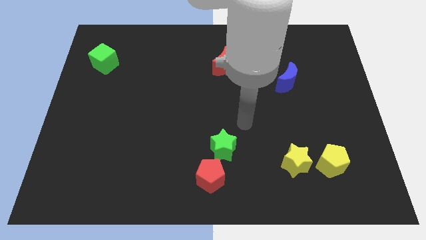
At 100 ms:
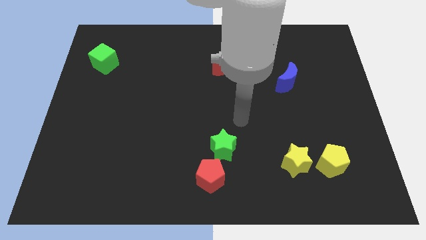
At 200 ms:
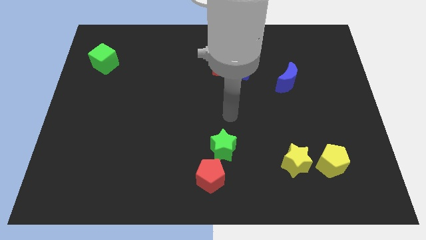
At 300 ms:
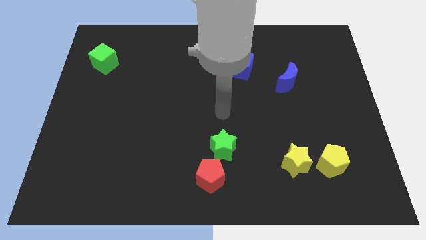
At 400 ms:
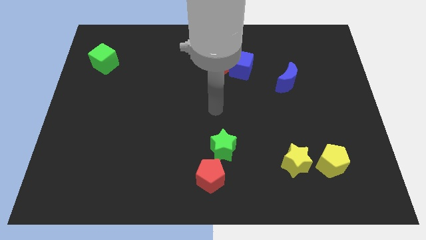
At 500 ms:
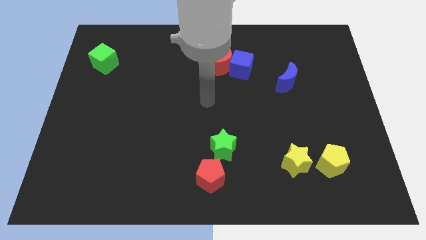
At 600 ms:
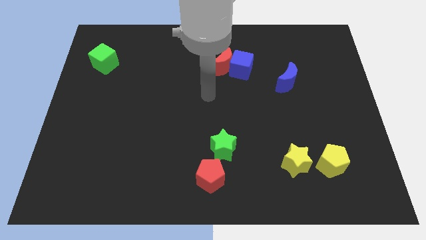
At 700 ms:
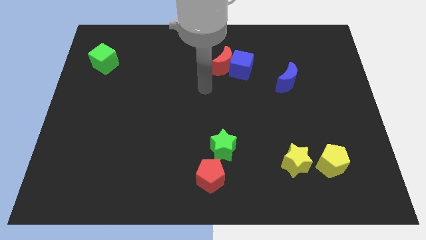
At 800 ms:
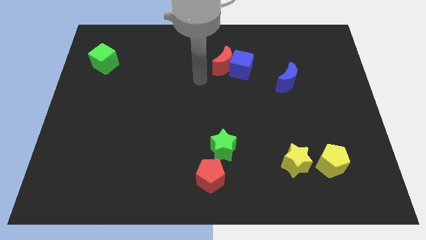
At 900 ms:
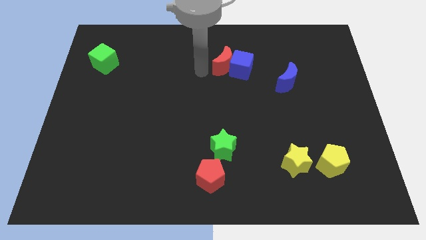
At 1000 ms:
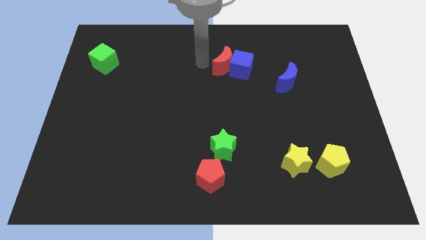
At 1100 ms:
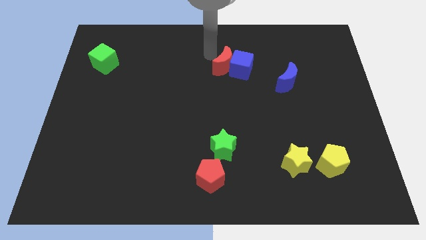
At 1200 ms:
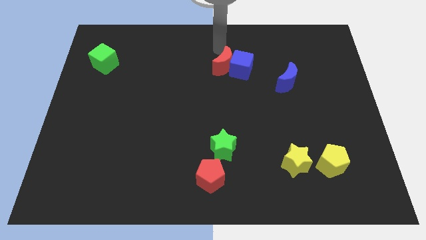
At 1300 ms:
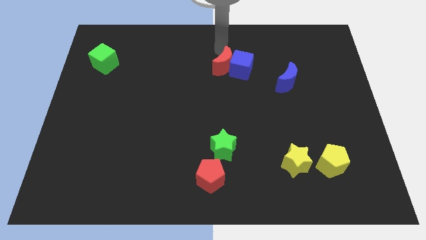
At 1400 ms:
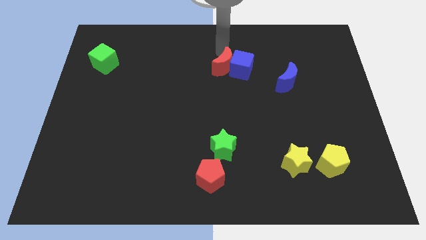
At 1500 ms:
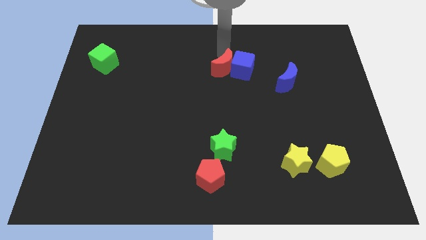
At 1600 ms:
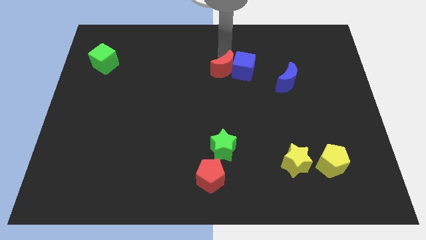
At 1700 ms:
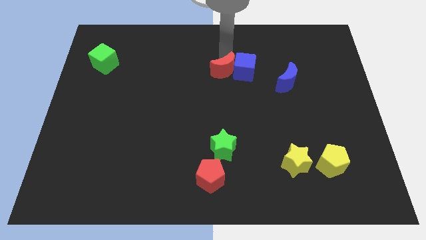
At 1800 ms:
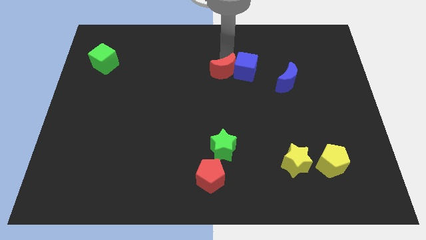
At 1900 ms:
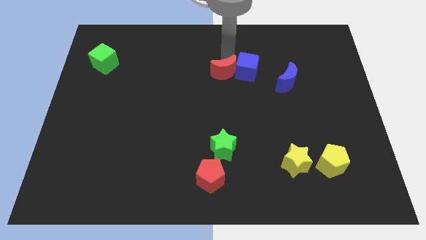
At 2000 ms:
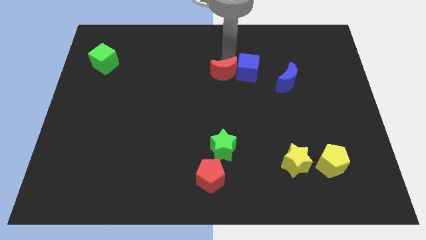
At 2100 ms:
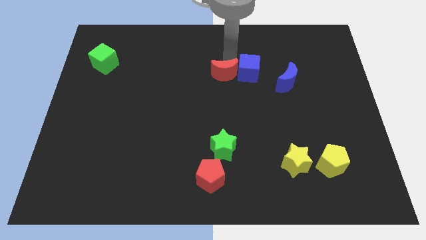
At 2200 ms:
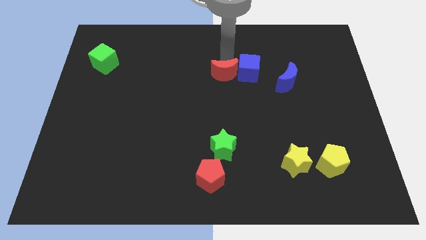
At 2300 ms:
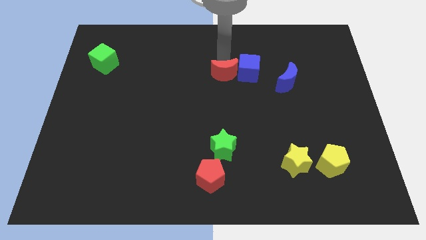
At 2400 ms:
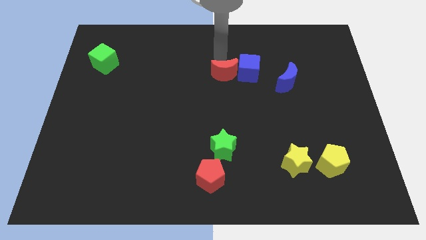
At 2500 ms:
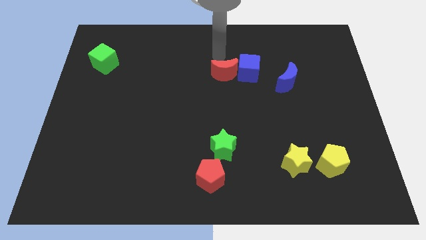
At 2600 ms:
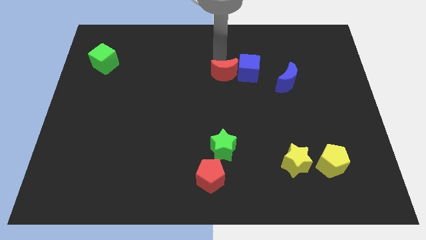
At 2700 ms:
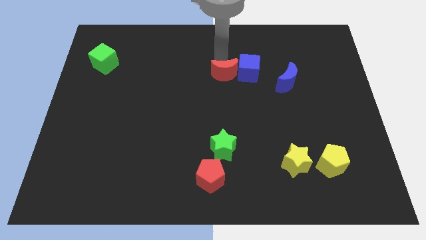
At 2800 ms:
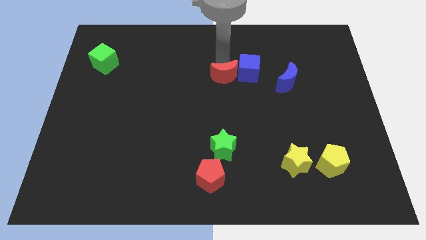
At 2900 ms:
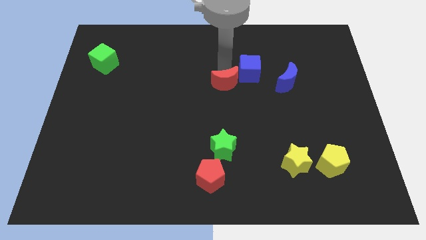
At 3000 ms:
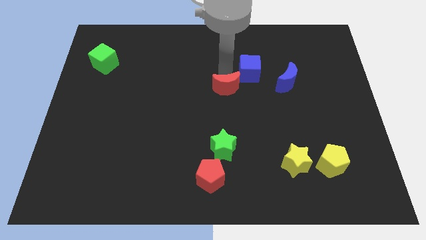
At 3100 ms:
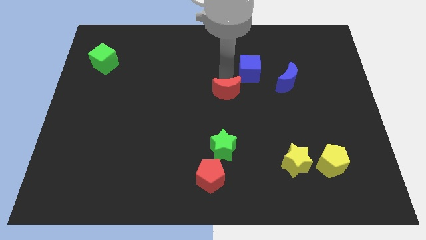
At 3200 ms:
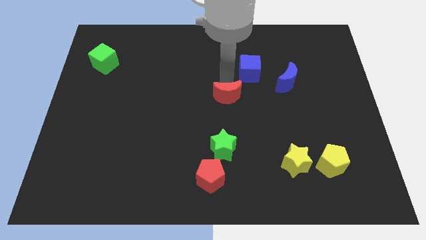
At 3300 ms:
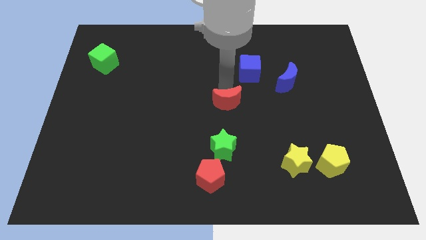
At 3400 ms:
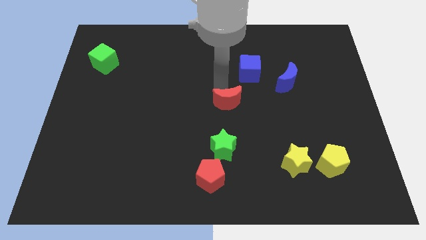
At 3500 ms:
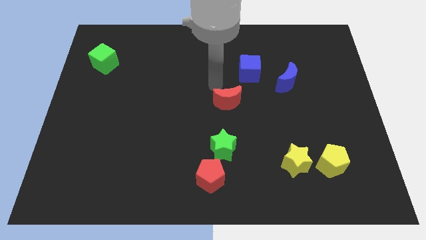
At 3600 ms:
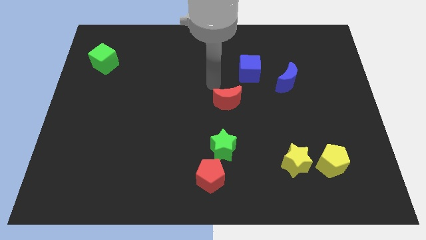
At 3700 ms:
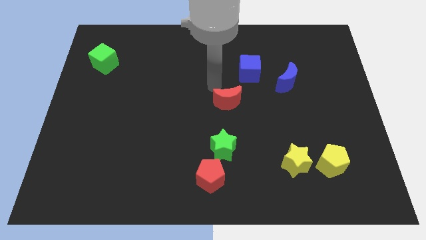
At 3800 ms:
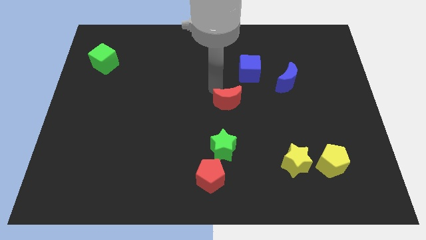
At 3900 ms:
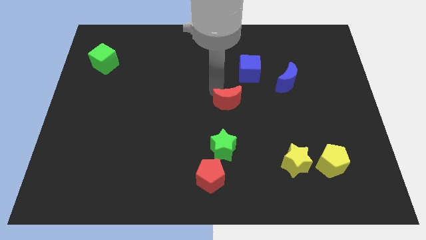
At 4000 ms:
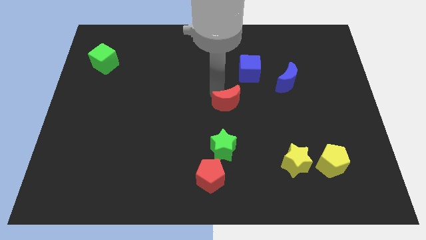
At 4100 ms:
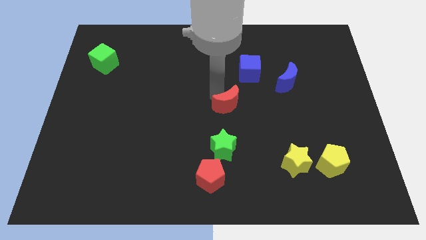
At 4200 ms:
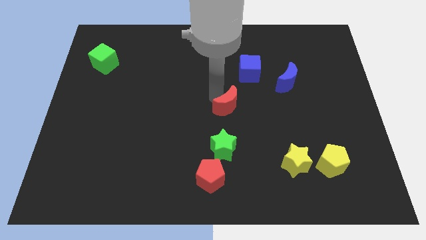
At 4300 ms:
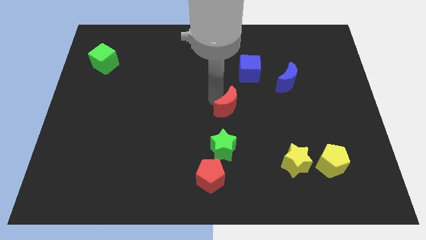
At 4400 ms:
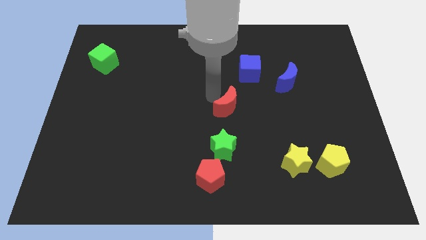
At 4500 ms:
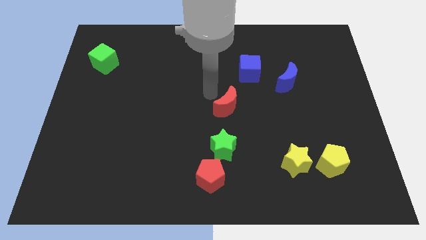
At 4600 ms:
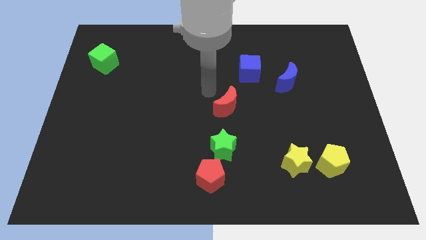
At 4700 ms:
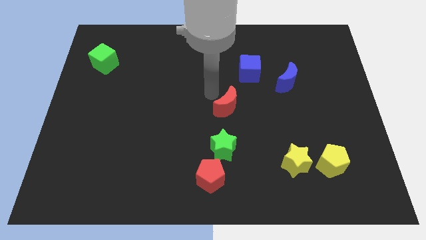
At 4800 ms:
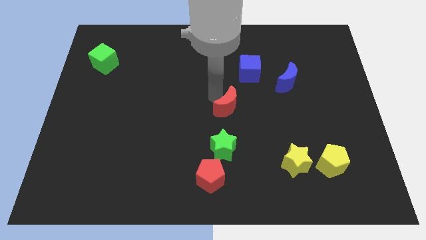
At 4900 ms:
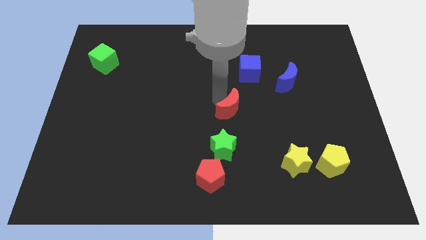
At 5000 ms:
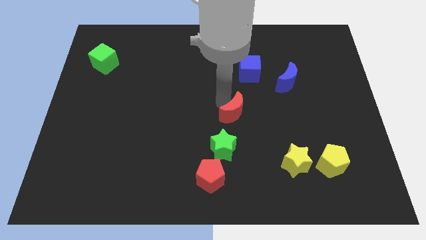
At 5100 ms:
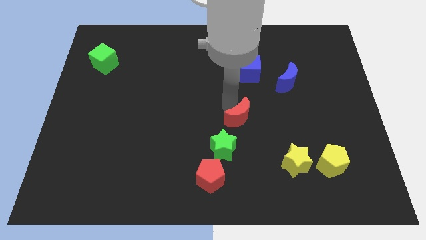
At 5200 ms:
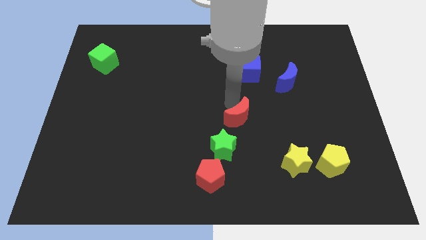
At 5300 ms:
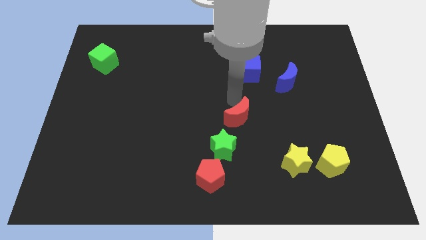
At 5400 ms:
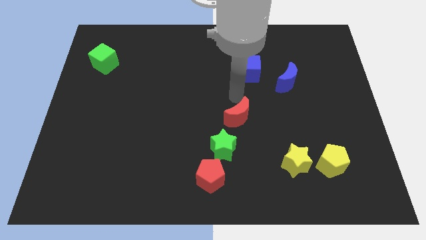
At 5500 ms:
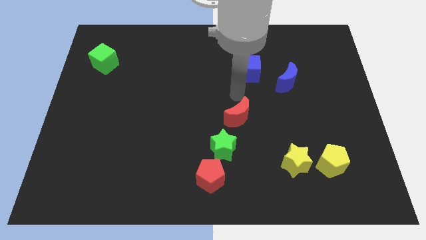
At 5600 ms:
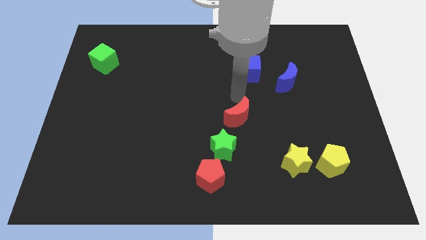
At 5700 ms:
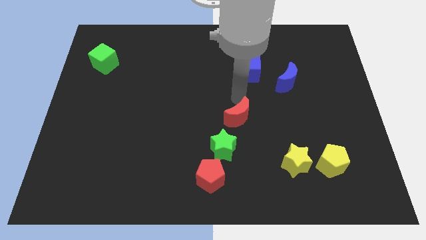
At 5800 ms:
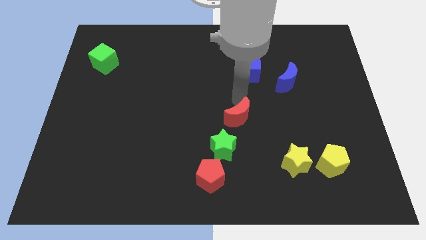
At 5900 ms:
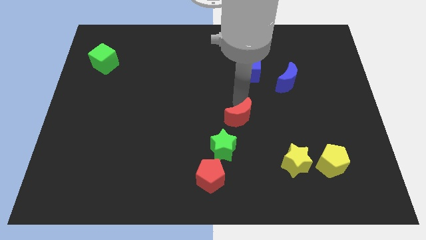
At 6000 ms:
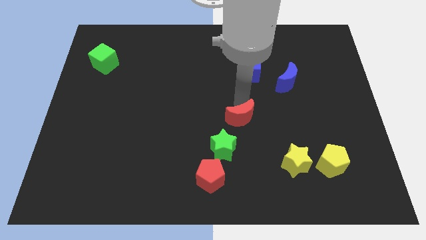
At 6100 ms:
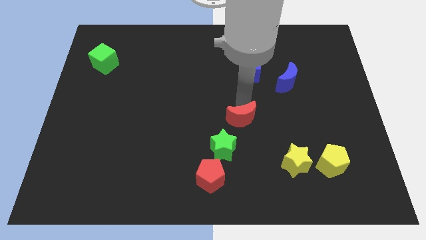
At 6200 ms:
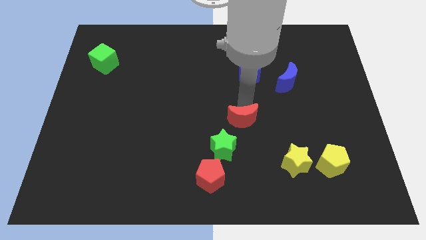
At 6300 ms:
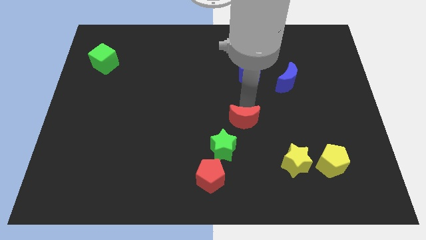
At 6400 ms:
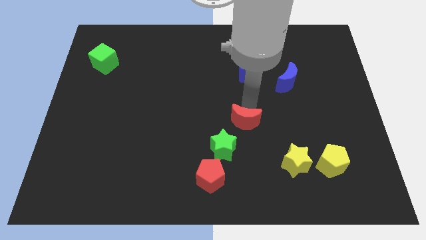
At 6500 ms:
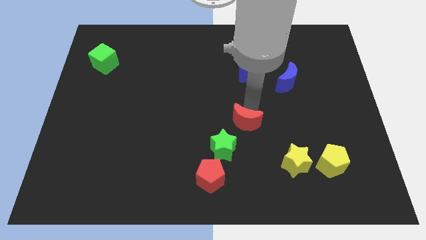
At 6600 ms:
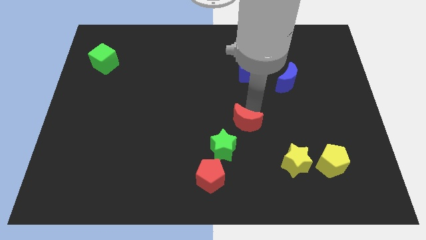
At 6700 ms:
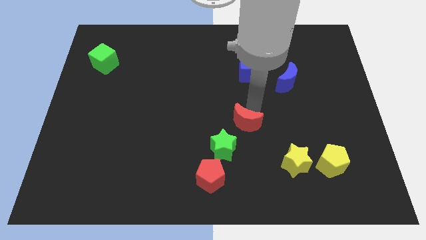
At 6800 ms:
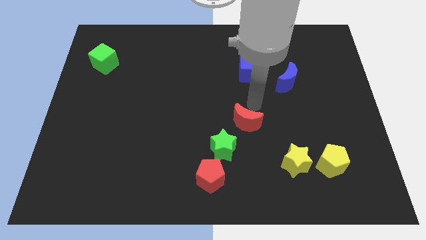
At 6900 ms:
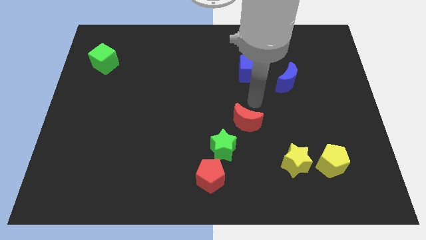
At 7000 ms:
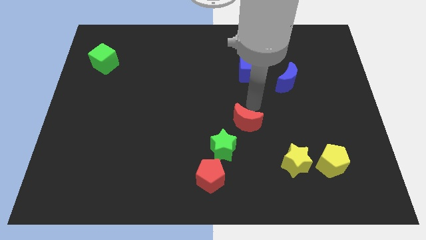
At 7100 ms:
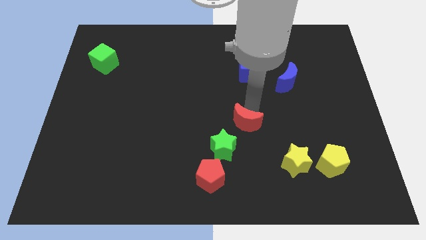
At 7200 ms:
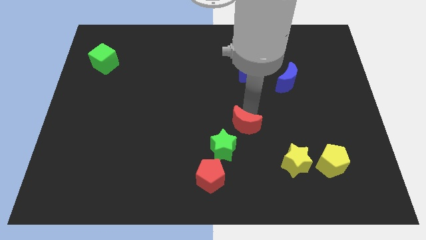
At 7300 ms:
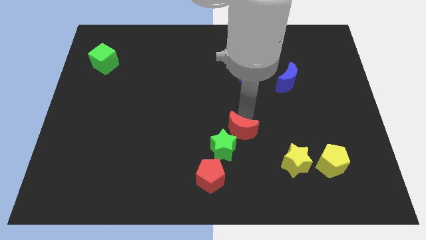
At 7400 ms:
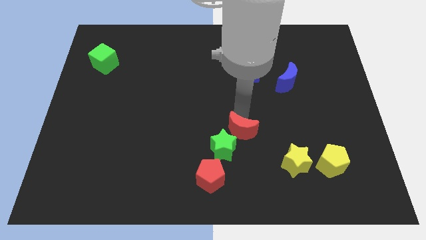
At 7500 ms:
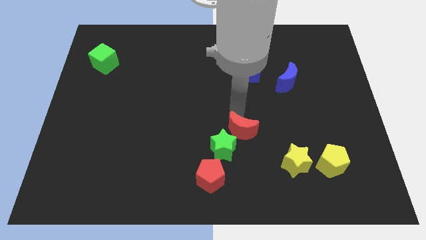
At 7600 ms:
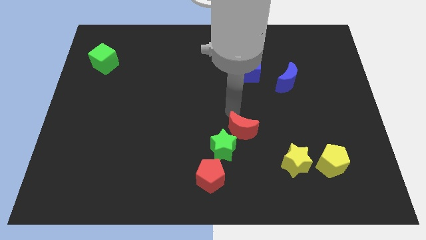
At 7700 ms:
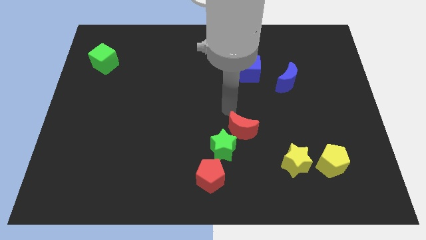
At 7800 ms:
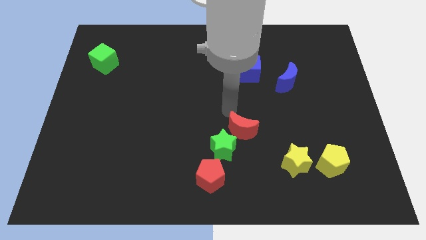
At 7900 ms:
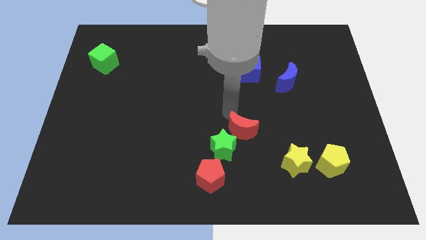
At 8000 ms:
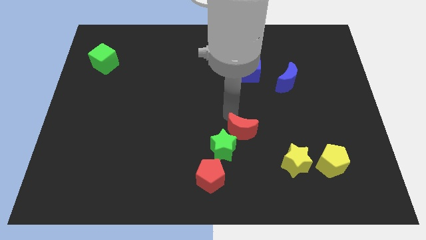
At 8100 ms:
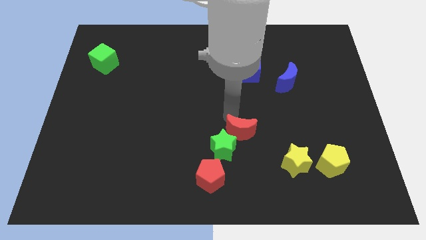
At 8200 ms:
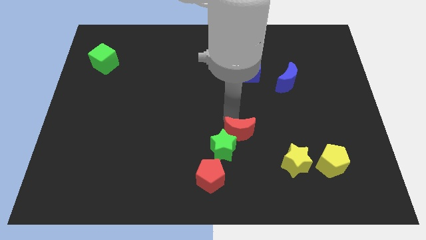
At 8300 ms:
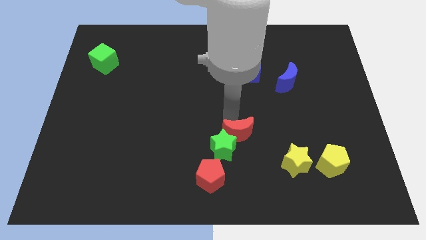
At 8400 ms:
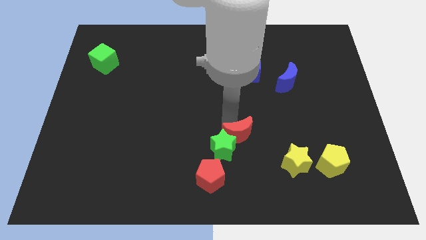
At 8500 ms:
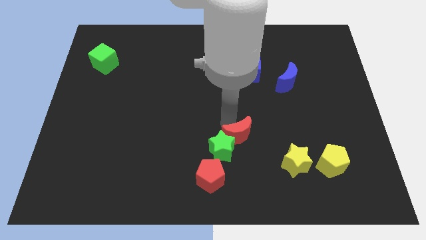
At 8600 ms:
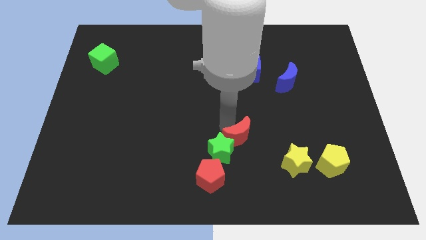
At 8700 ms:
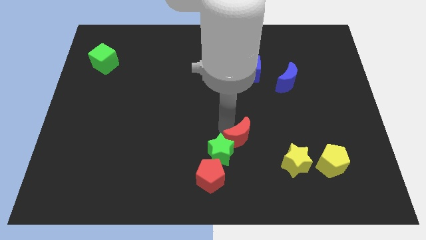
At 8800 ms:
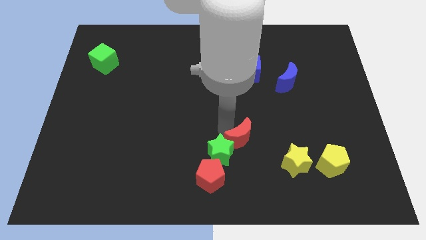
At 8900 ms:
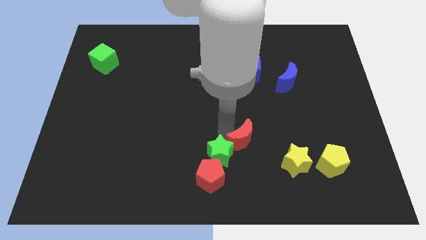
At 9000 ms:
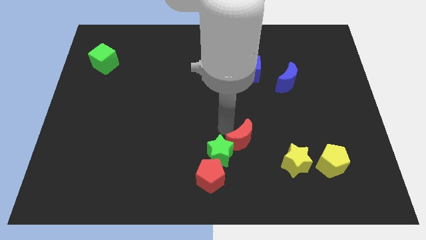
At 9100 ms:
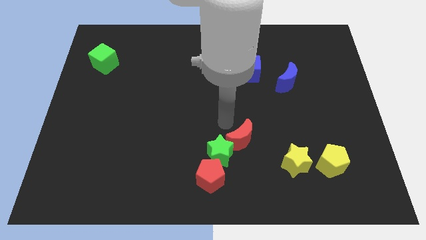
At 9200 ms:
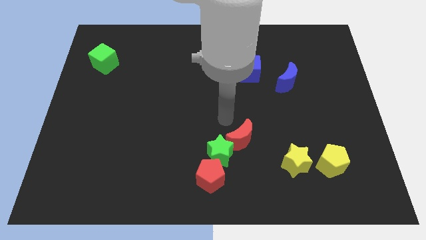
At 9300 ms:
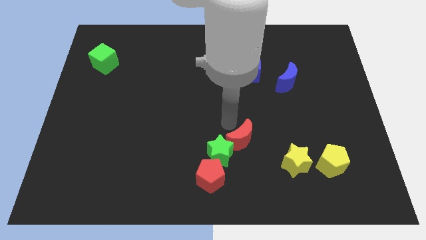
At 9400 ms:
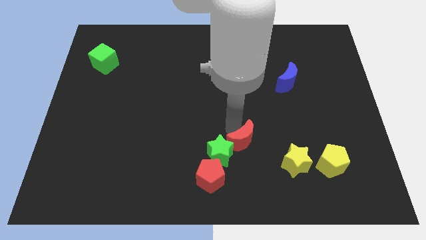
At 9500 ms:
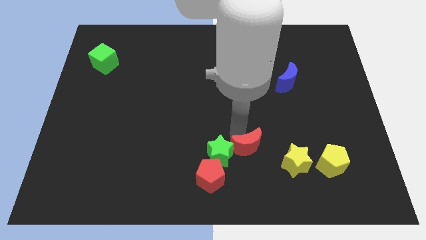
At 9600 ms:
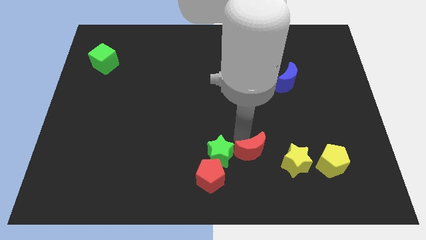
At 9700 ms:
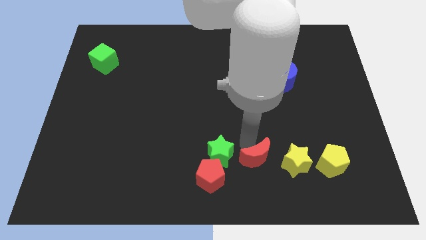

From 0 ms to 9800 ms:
move the red moon to the right side of the red pentagon
